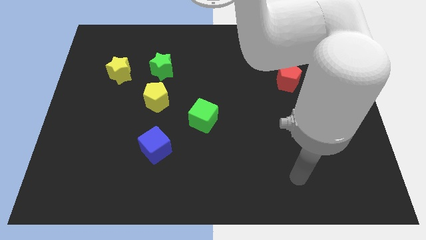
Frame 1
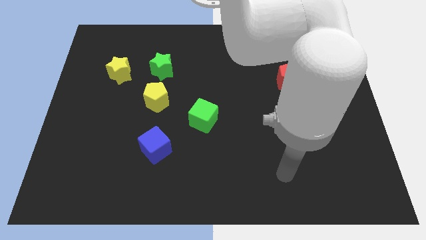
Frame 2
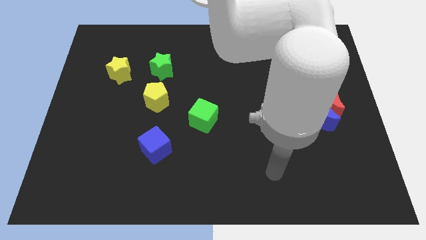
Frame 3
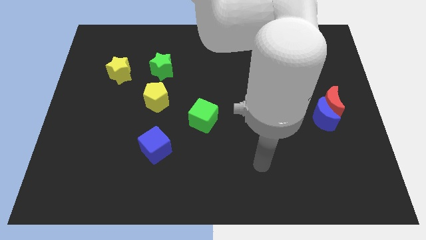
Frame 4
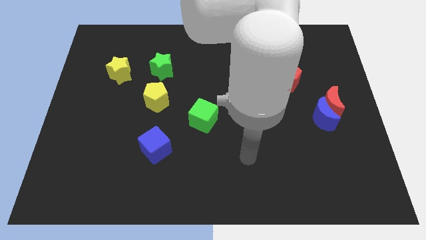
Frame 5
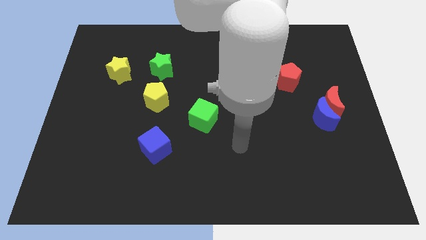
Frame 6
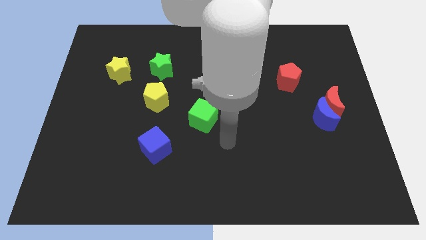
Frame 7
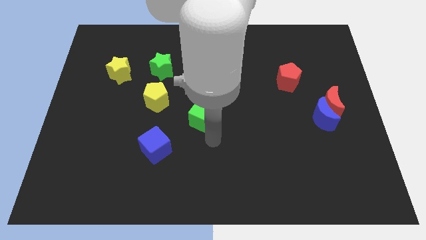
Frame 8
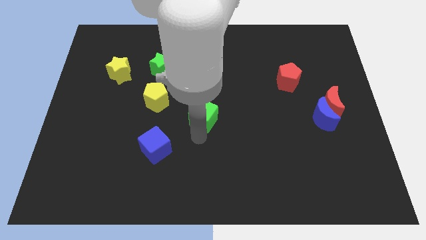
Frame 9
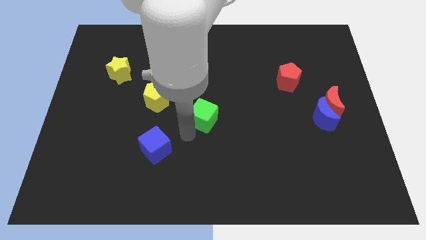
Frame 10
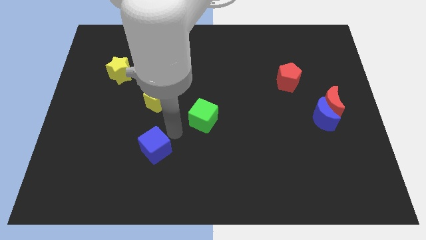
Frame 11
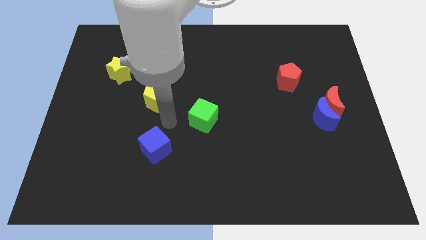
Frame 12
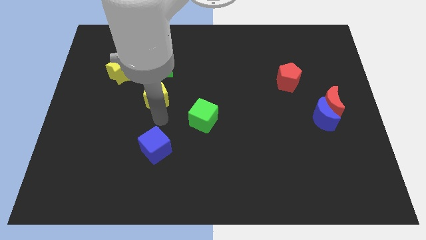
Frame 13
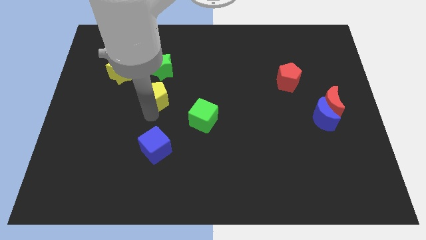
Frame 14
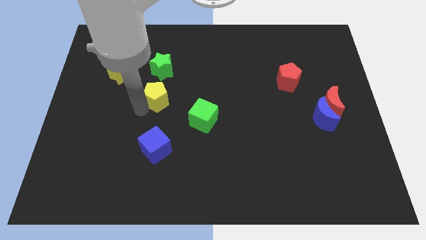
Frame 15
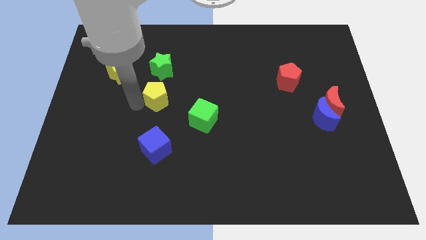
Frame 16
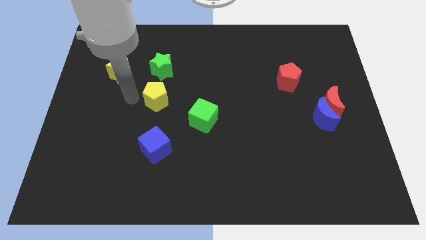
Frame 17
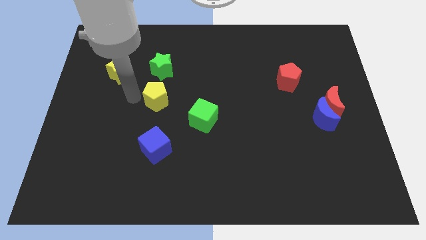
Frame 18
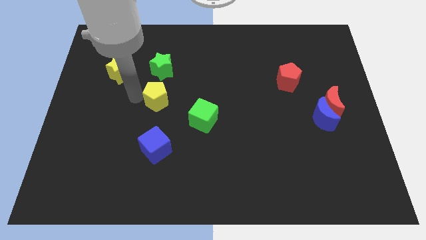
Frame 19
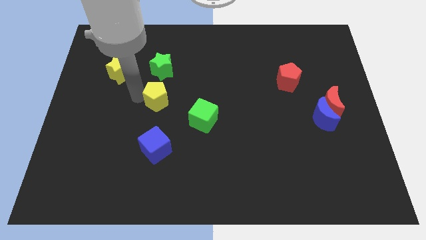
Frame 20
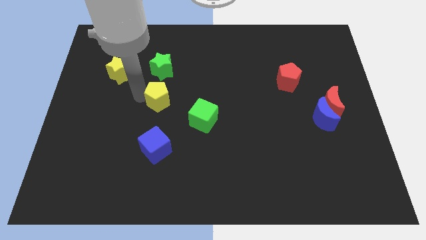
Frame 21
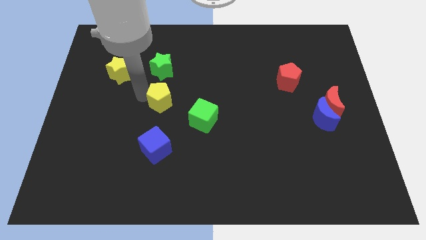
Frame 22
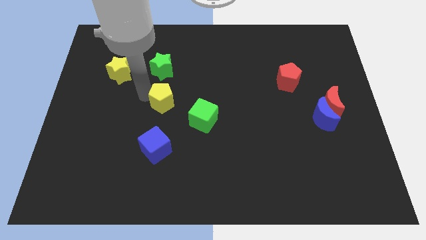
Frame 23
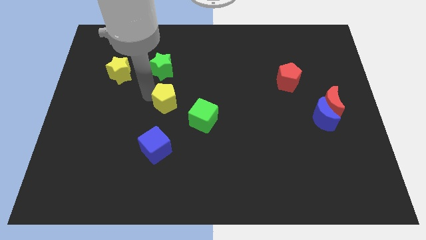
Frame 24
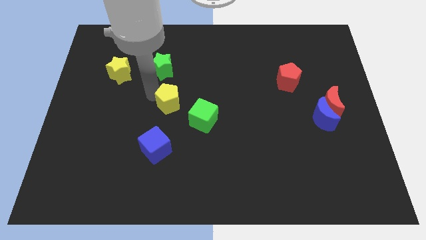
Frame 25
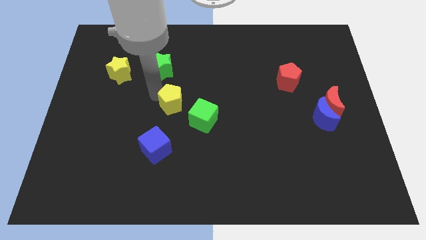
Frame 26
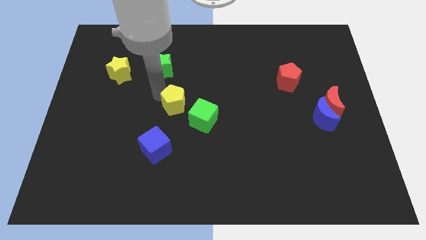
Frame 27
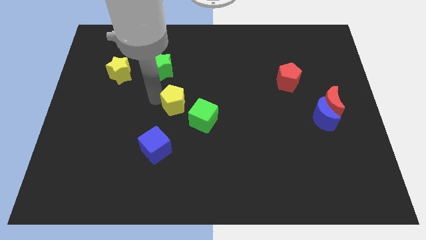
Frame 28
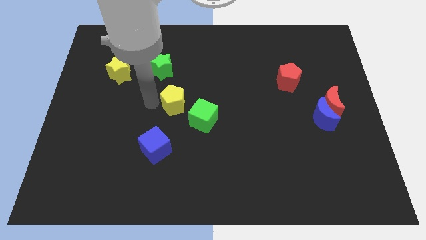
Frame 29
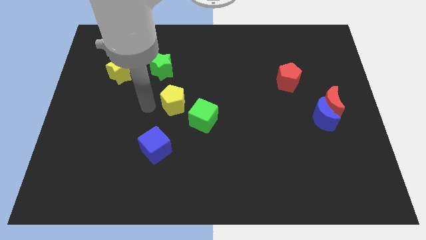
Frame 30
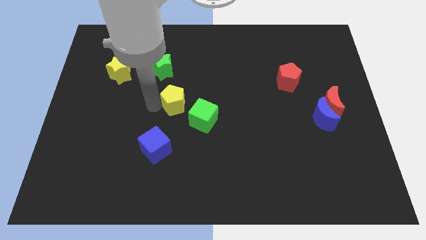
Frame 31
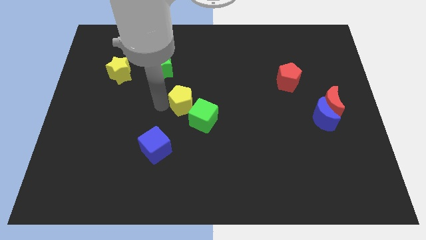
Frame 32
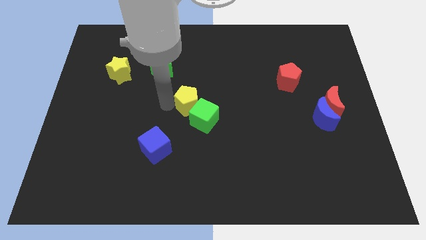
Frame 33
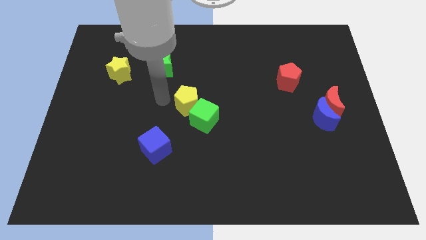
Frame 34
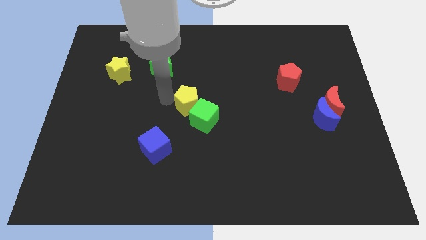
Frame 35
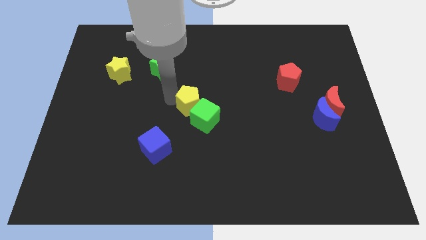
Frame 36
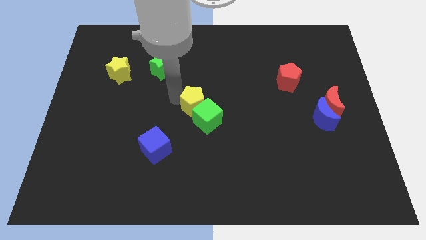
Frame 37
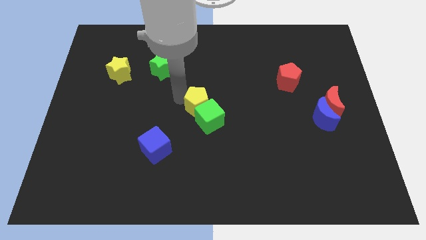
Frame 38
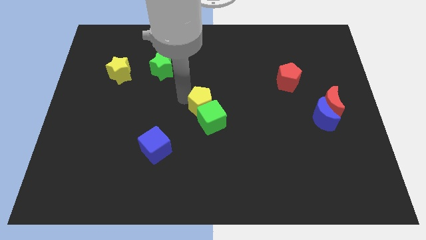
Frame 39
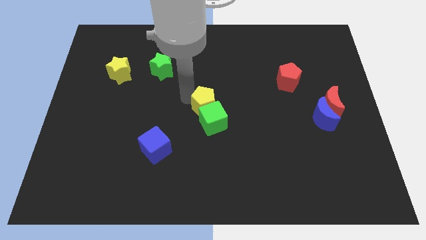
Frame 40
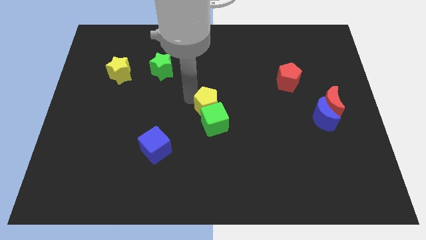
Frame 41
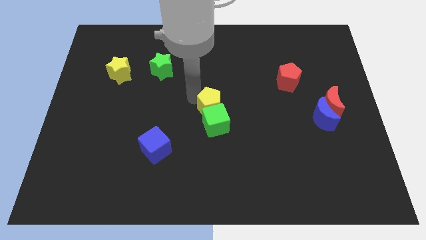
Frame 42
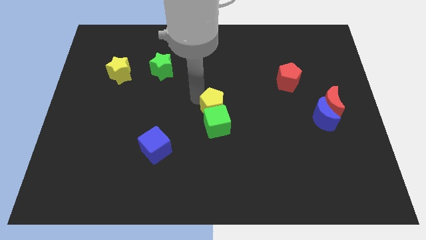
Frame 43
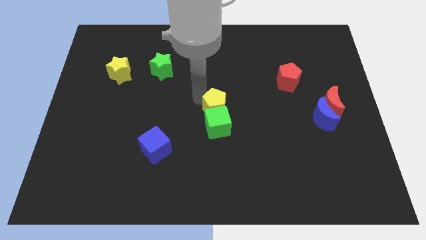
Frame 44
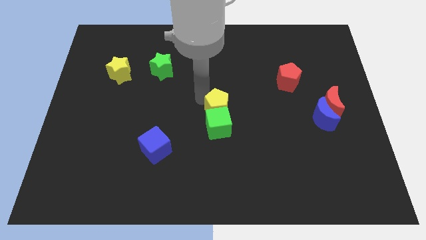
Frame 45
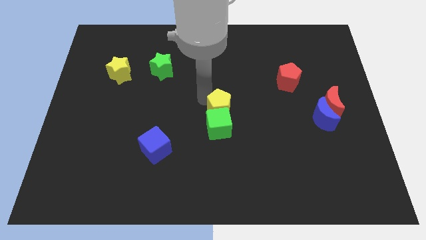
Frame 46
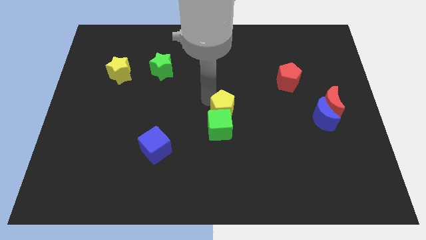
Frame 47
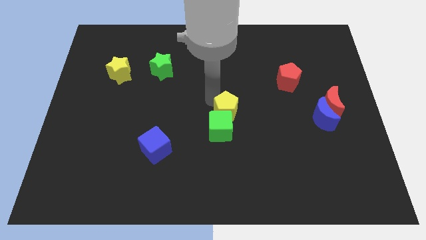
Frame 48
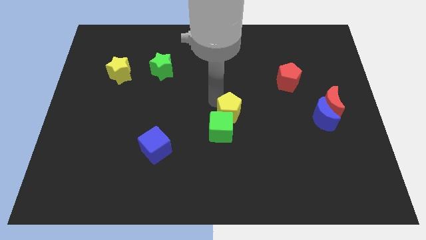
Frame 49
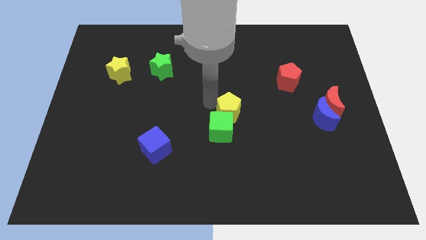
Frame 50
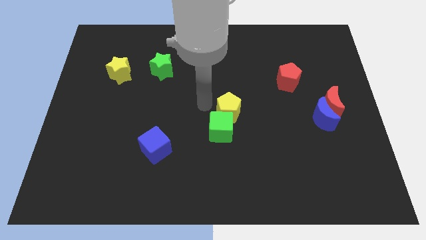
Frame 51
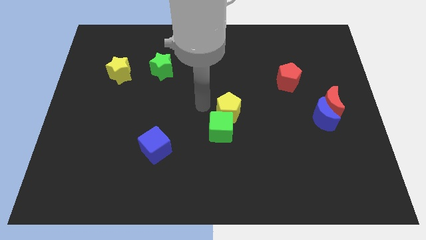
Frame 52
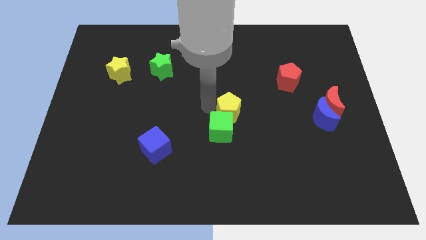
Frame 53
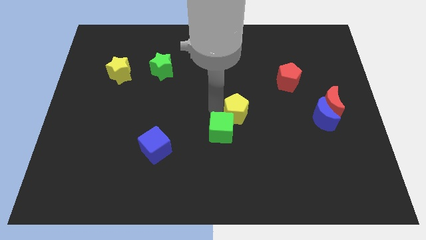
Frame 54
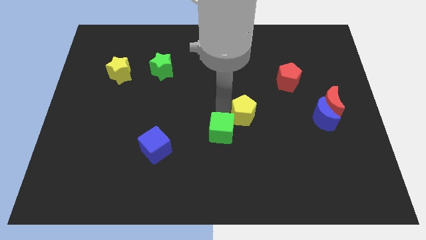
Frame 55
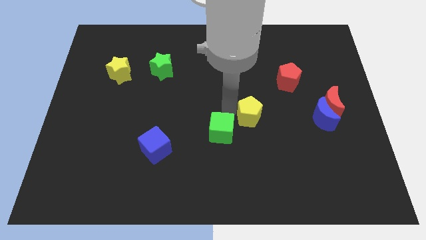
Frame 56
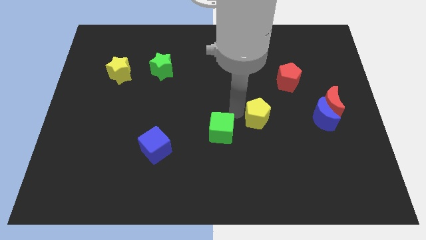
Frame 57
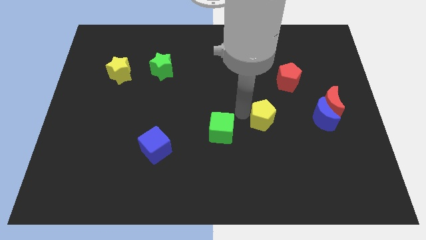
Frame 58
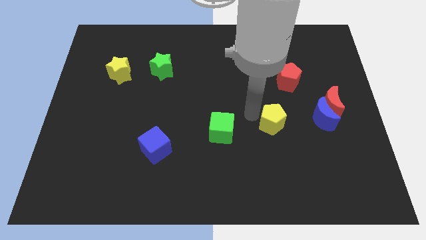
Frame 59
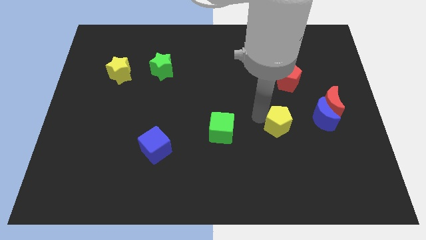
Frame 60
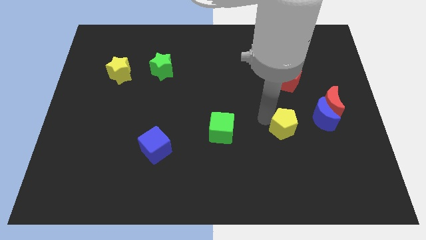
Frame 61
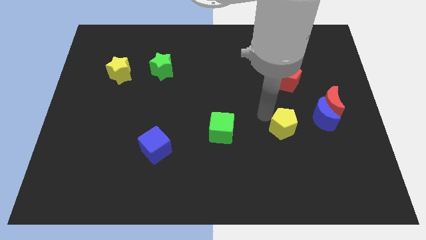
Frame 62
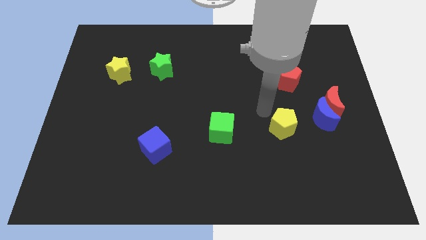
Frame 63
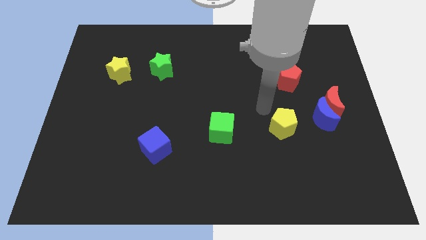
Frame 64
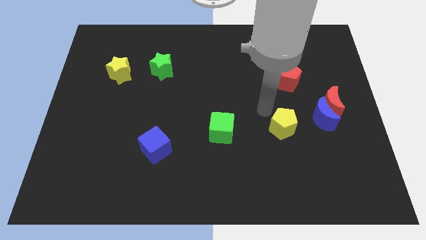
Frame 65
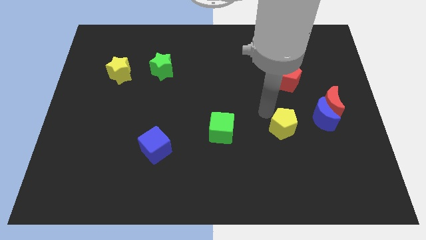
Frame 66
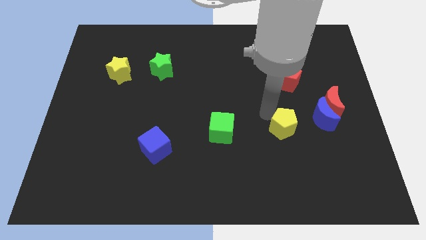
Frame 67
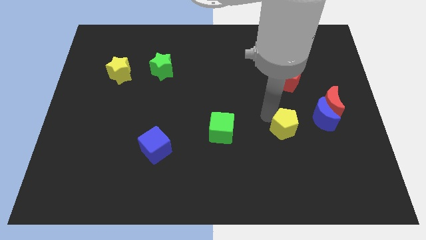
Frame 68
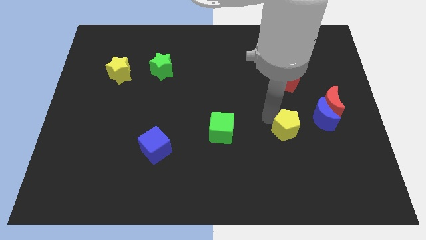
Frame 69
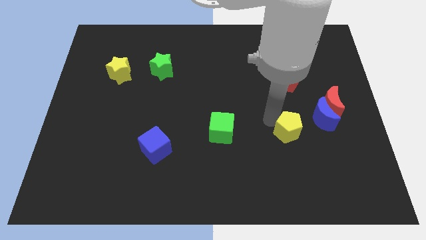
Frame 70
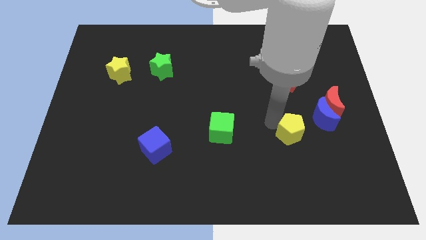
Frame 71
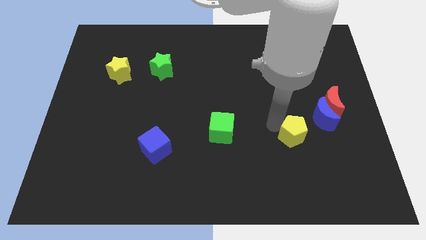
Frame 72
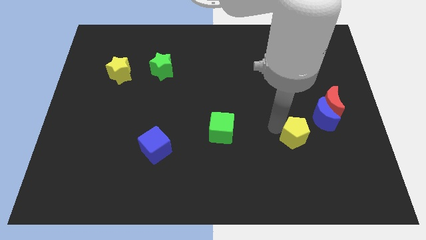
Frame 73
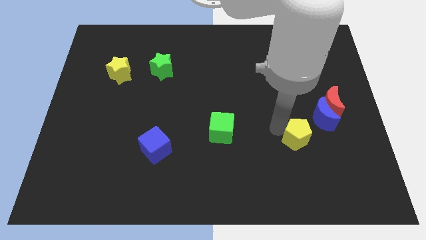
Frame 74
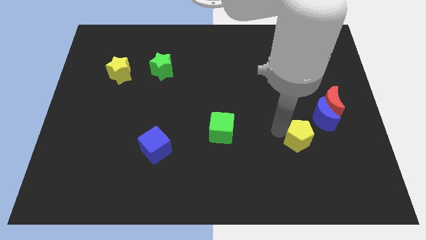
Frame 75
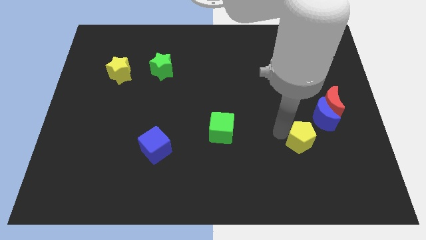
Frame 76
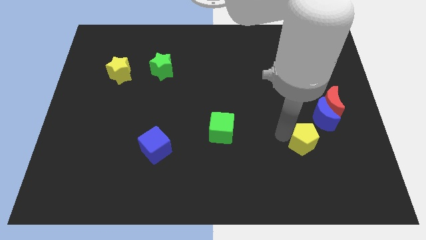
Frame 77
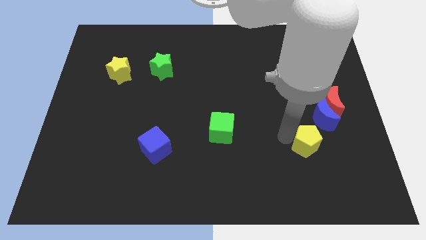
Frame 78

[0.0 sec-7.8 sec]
move the yellow pentagon to the bottom of the blue moon
